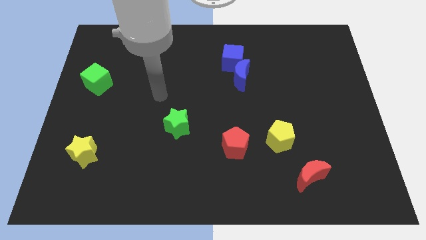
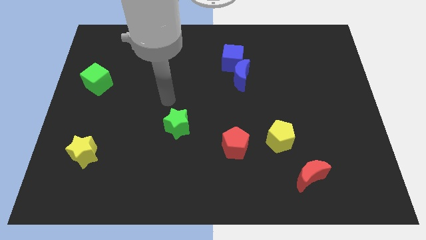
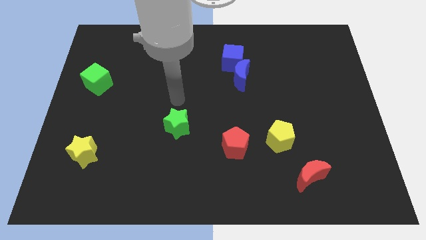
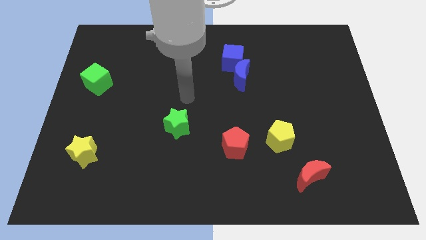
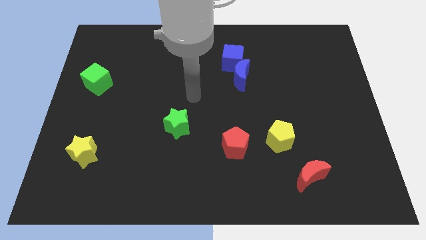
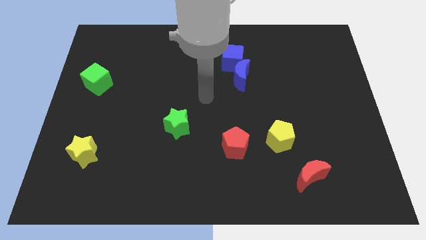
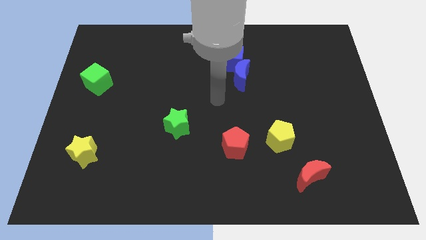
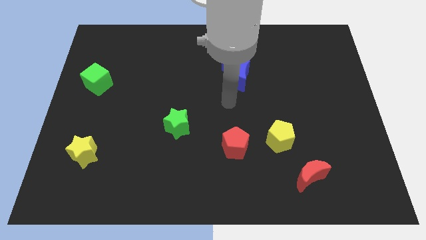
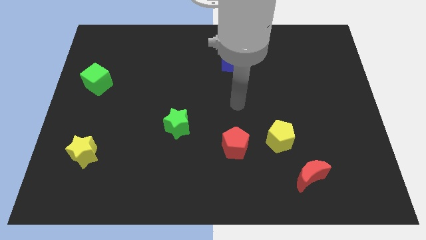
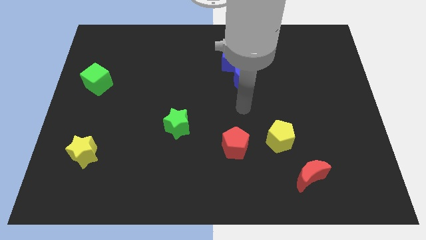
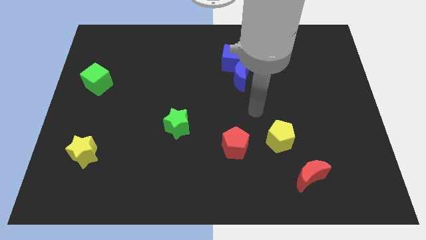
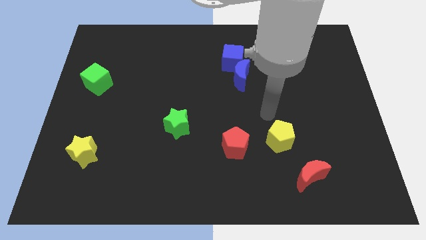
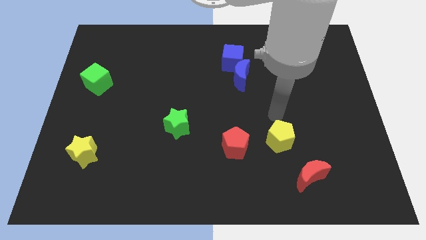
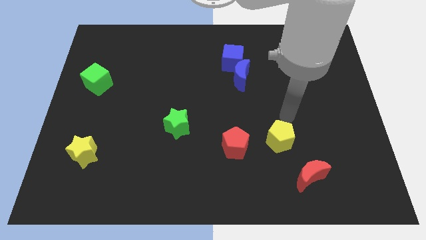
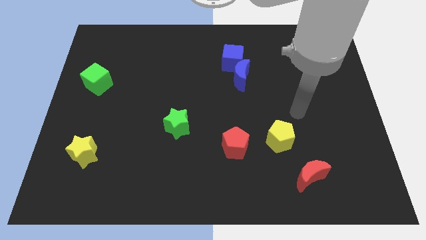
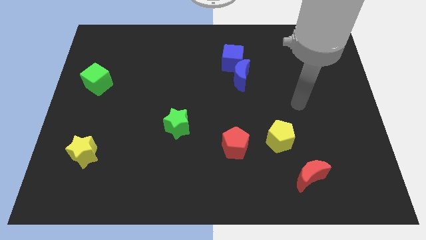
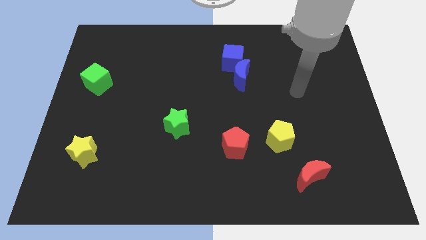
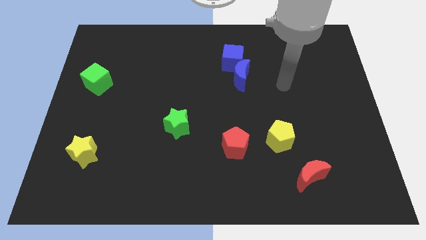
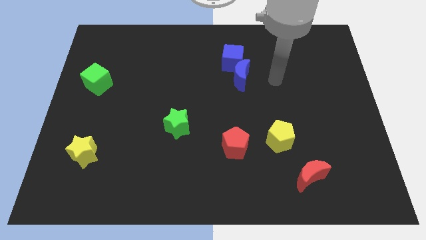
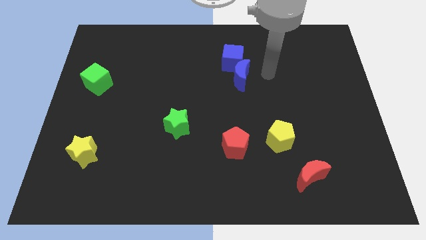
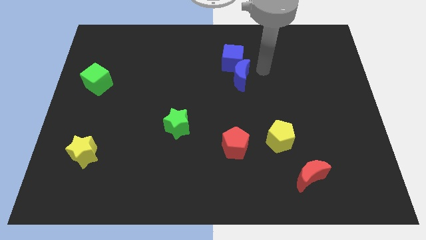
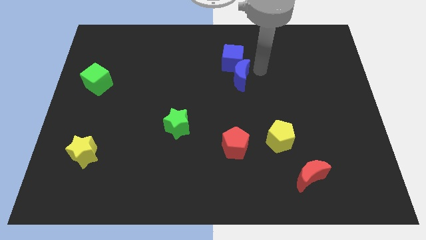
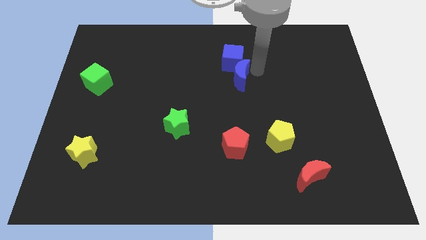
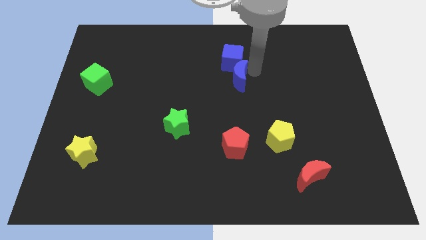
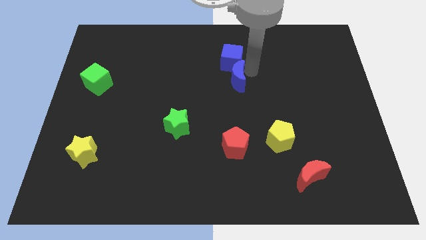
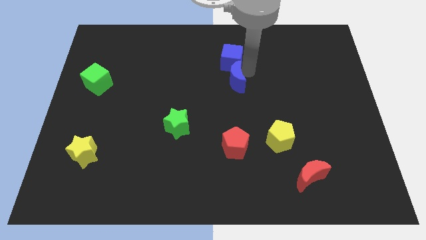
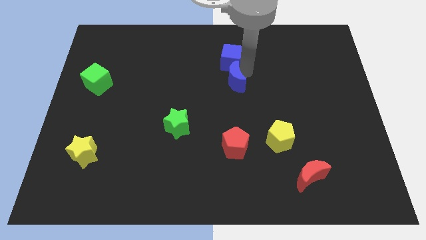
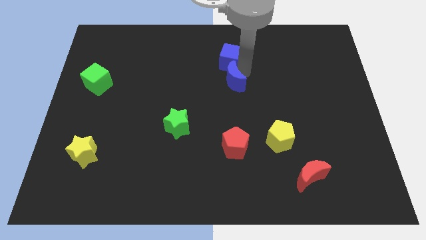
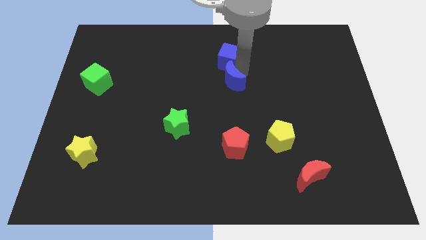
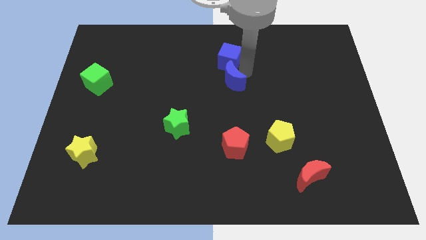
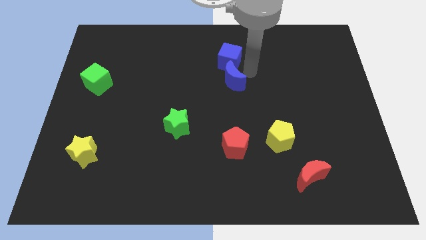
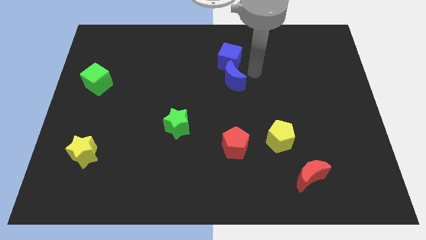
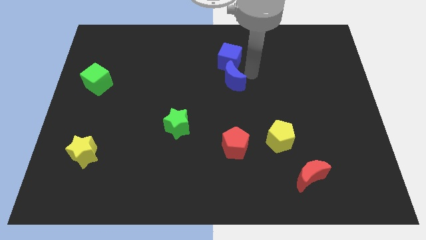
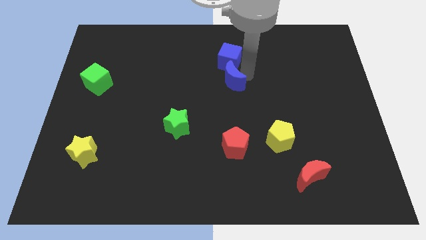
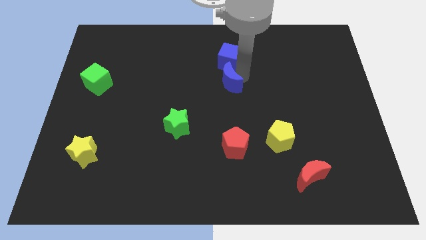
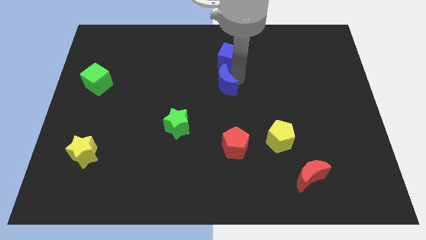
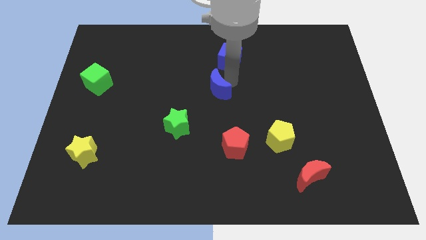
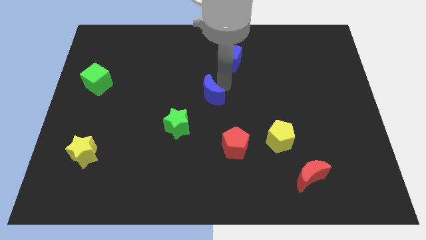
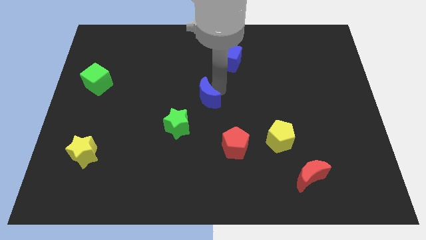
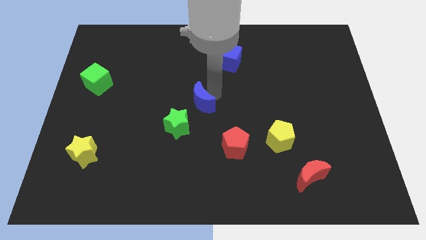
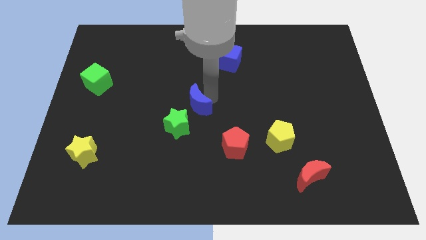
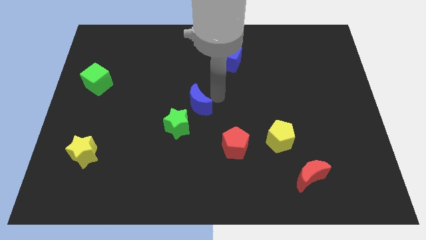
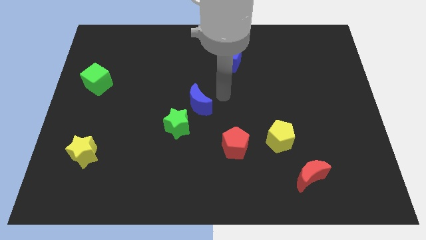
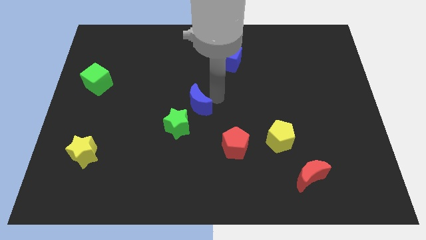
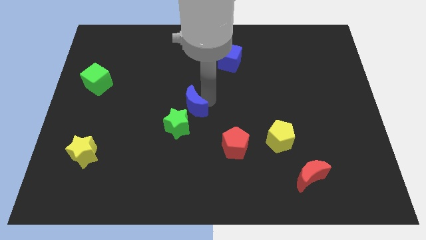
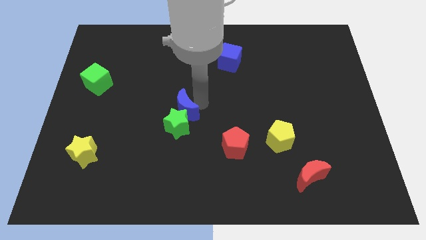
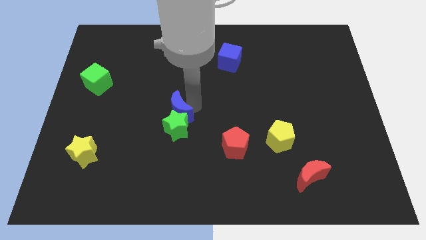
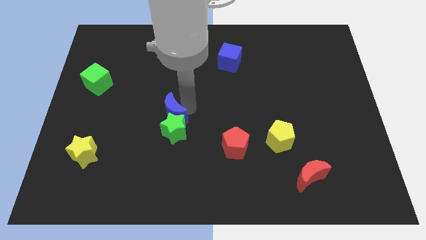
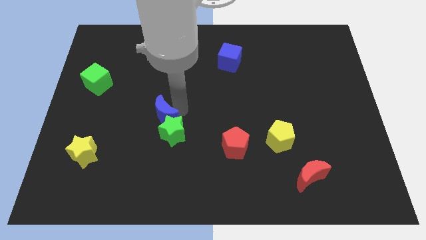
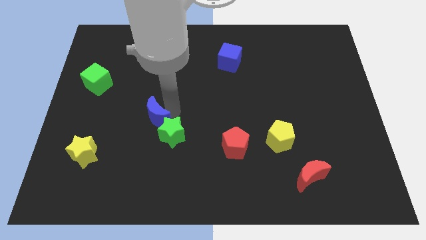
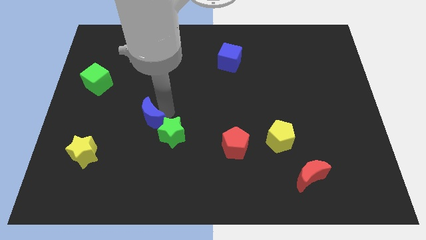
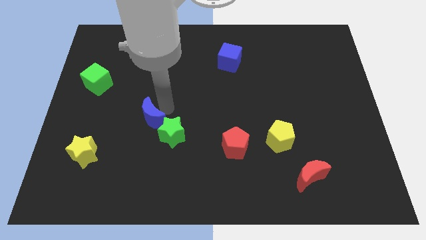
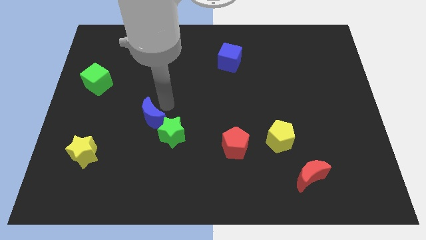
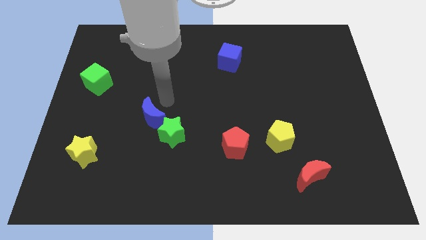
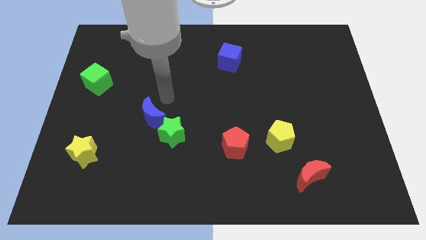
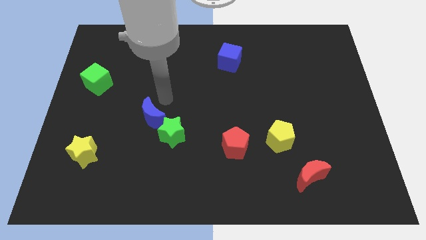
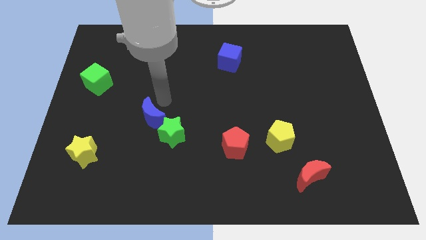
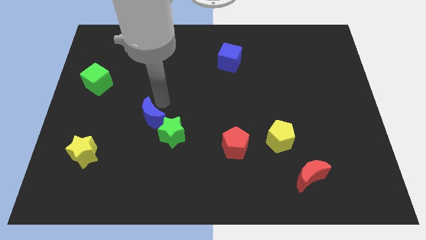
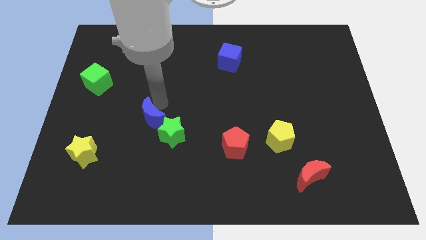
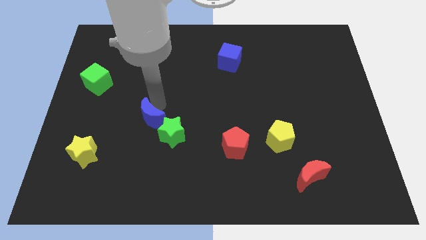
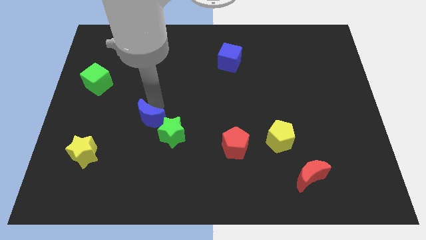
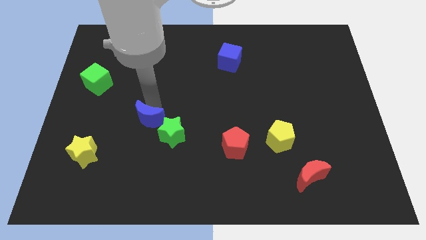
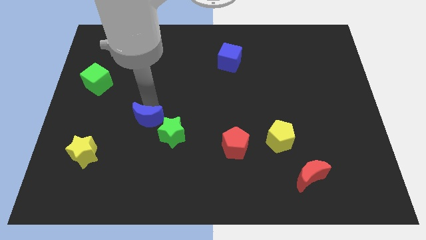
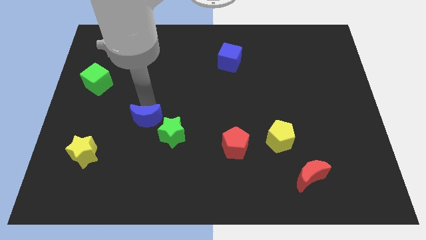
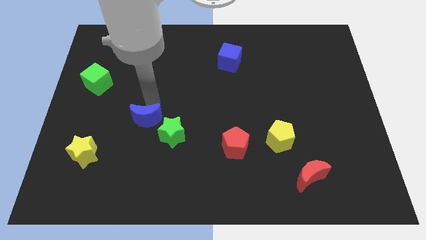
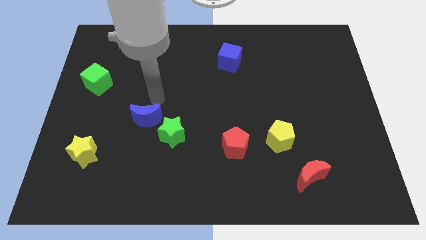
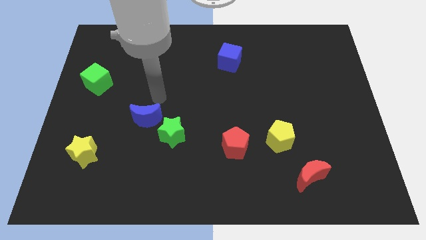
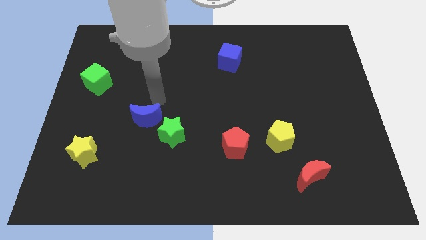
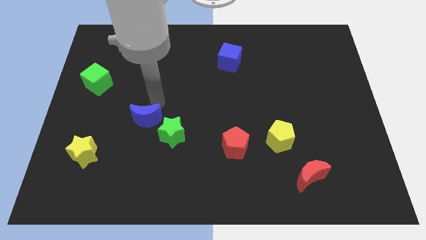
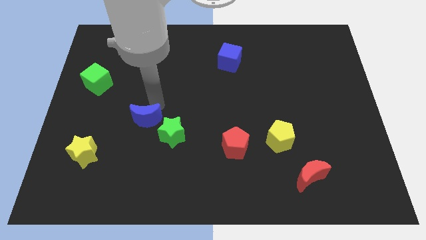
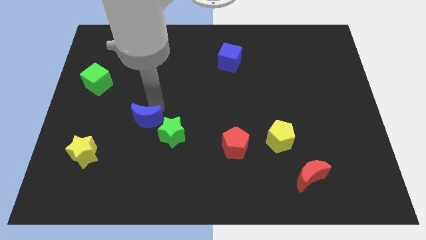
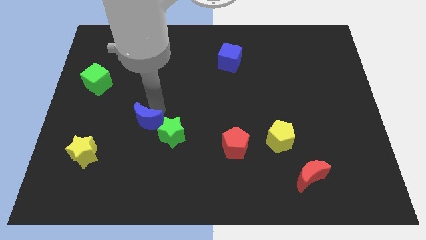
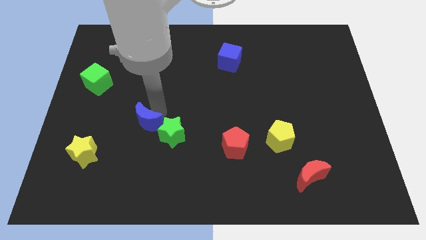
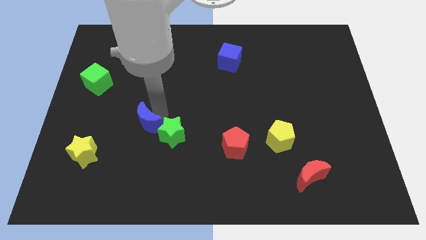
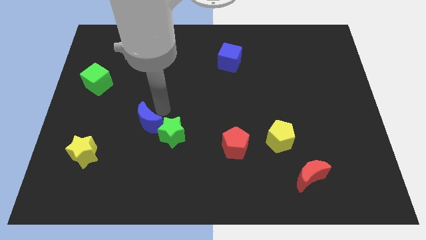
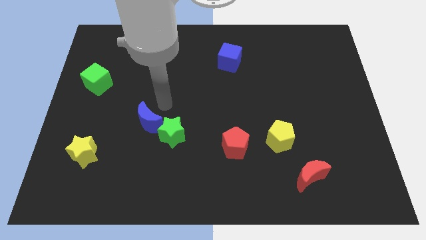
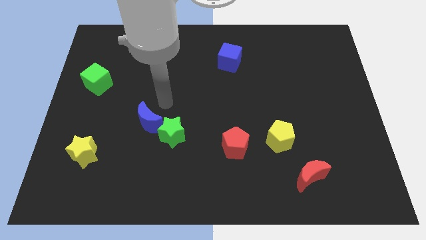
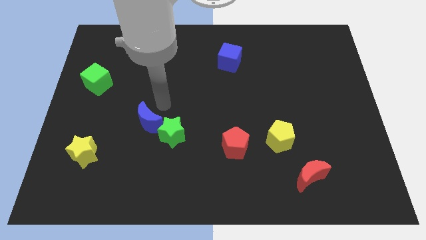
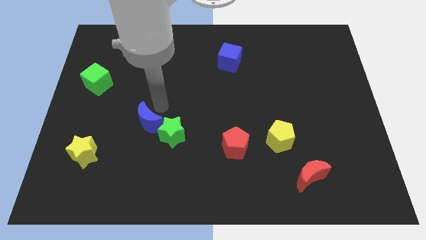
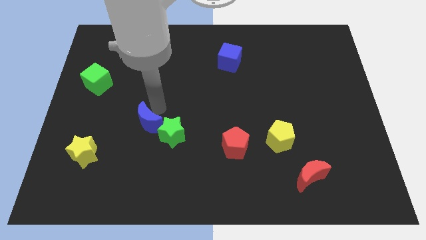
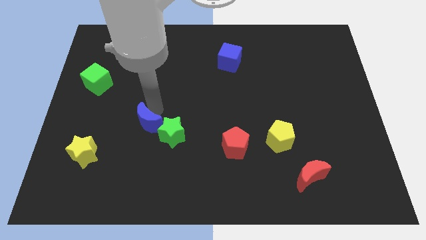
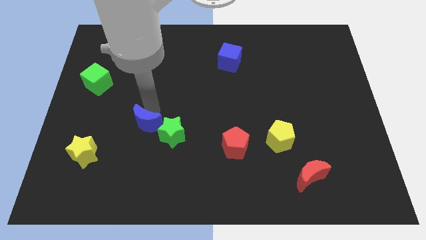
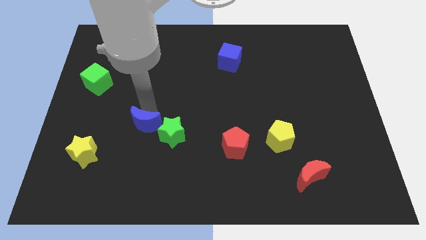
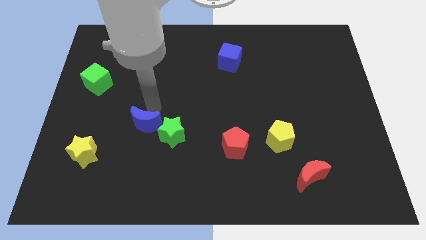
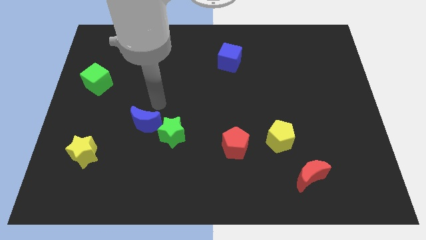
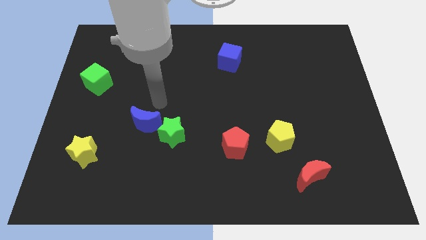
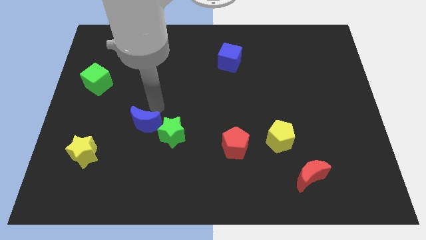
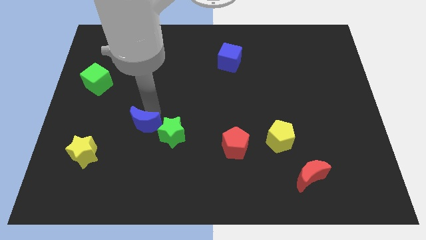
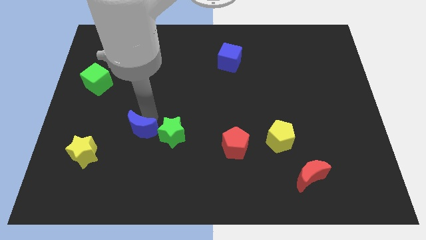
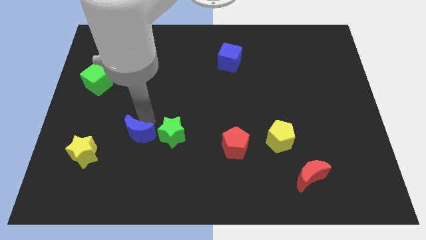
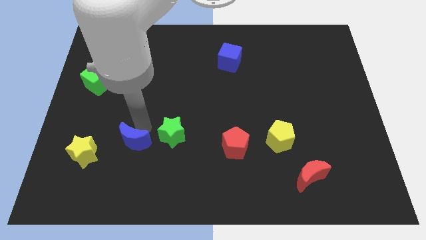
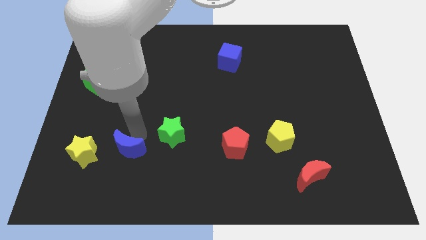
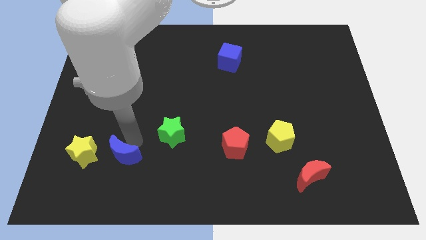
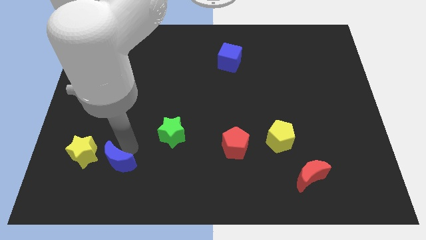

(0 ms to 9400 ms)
push the blue moon to the bottom right of the yellow star
